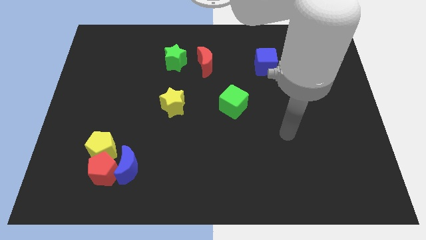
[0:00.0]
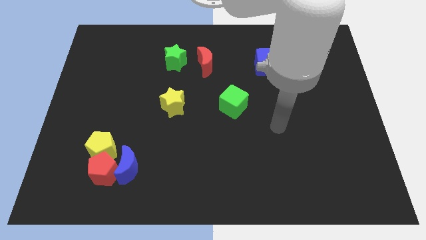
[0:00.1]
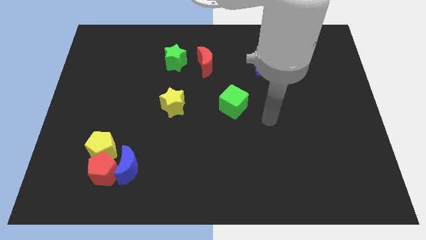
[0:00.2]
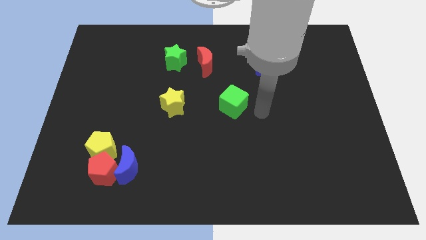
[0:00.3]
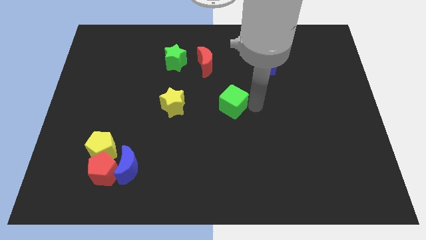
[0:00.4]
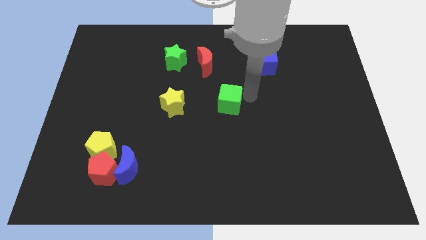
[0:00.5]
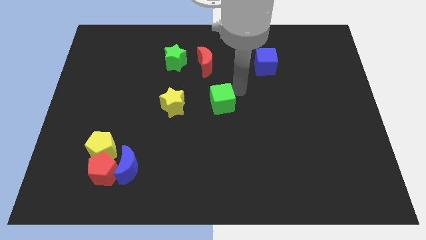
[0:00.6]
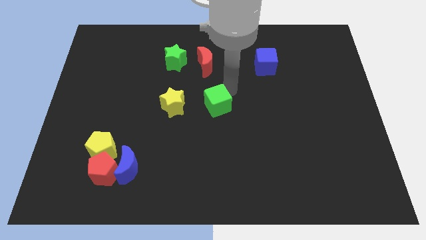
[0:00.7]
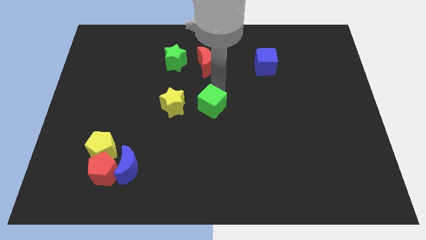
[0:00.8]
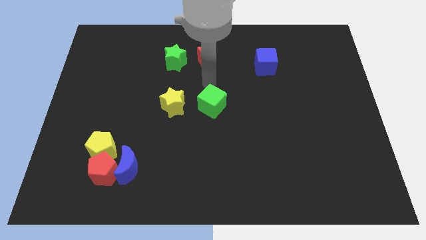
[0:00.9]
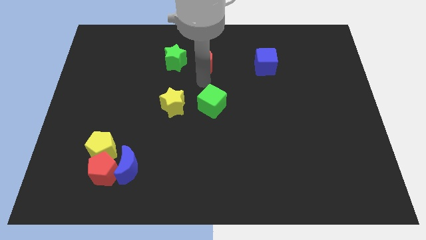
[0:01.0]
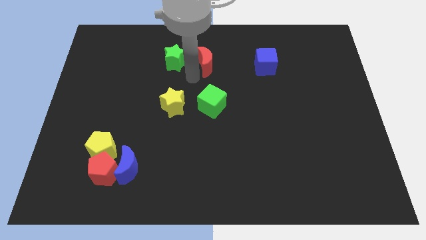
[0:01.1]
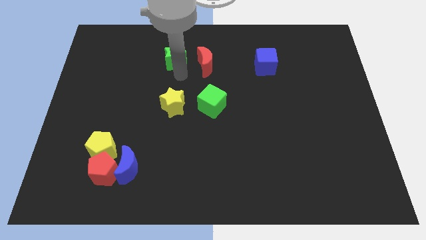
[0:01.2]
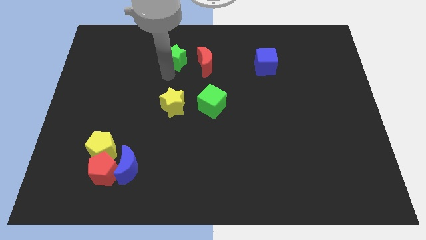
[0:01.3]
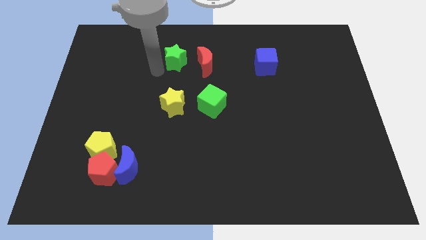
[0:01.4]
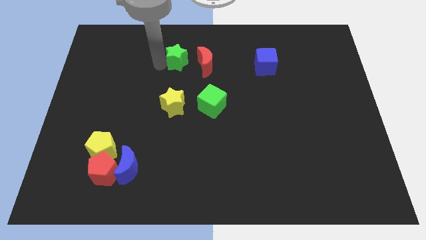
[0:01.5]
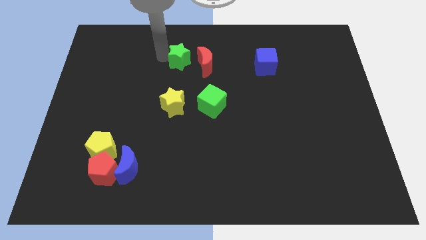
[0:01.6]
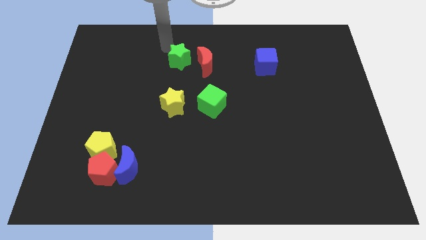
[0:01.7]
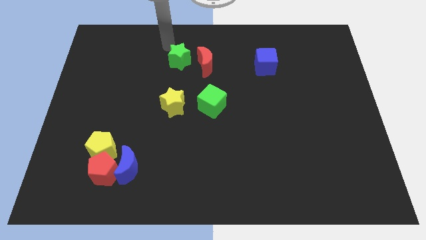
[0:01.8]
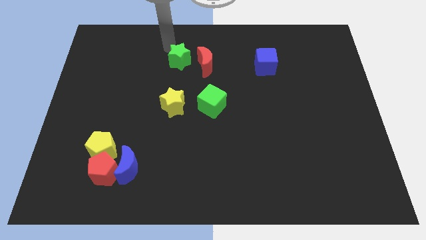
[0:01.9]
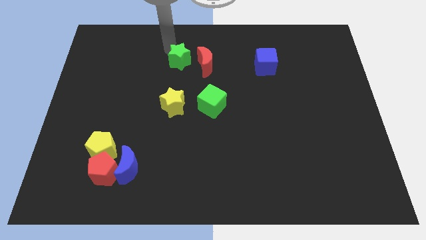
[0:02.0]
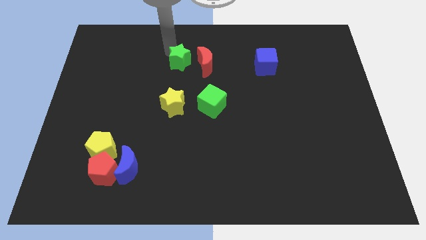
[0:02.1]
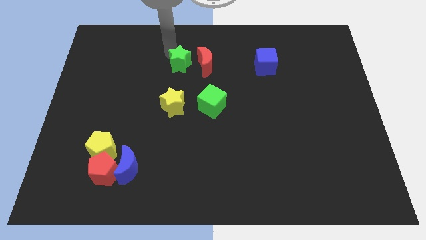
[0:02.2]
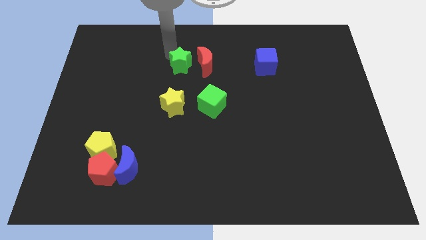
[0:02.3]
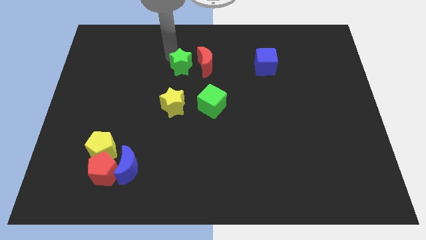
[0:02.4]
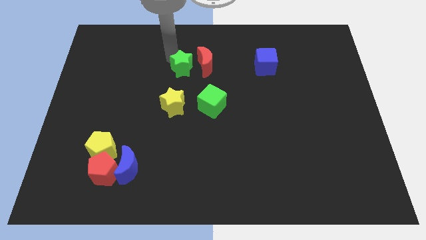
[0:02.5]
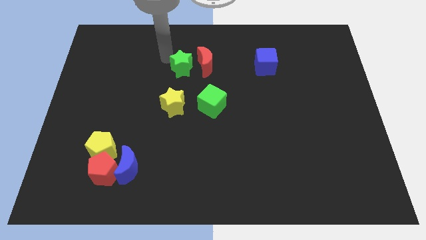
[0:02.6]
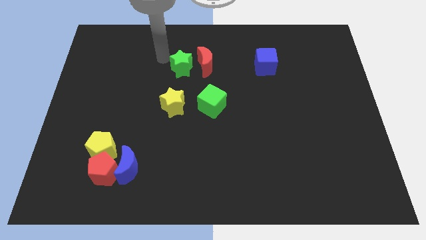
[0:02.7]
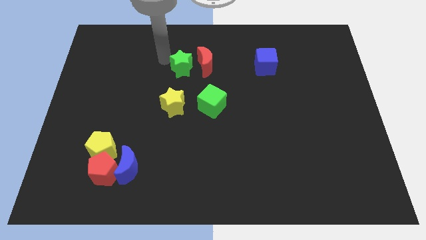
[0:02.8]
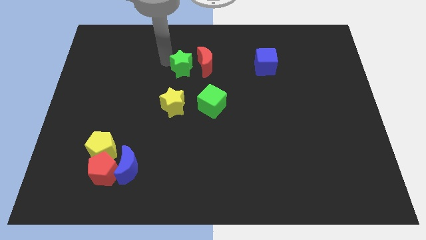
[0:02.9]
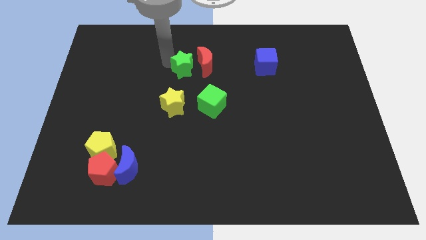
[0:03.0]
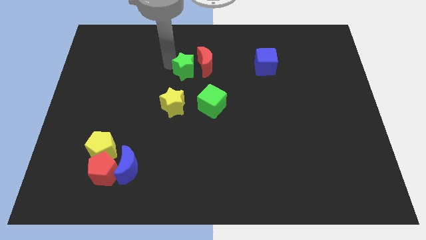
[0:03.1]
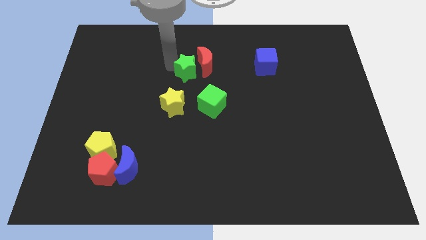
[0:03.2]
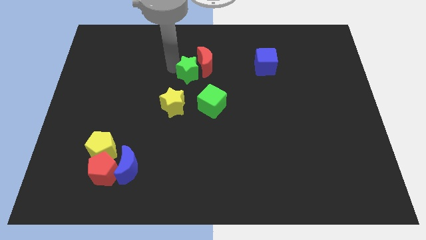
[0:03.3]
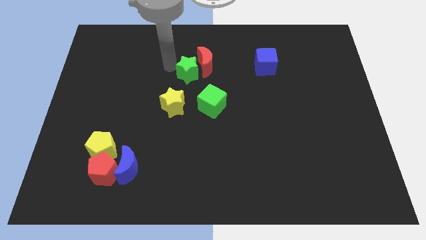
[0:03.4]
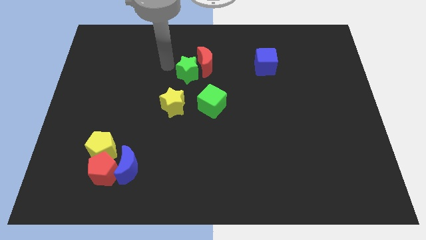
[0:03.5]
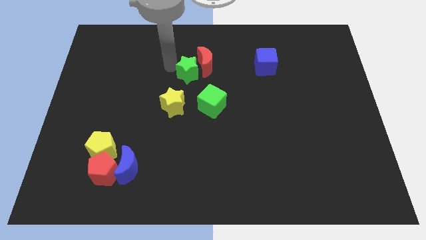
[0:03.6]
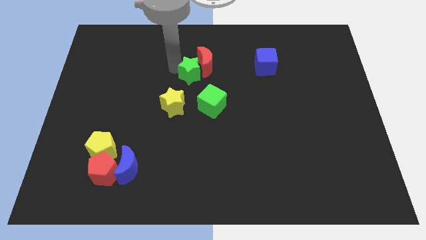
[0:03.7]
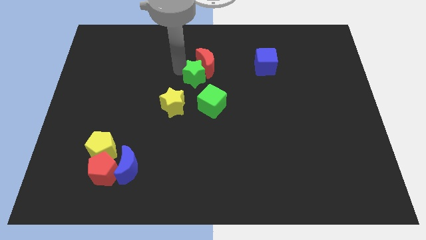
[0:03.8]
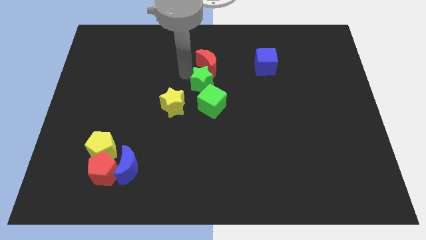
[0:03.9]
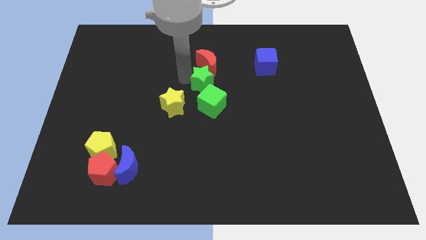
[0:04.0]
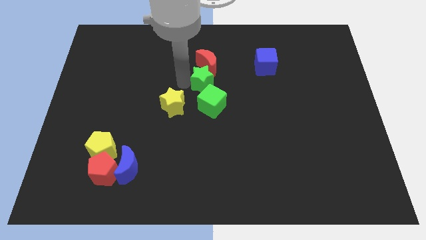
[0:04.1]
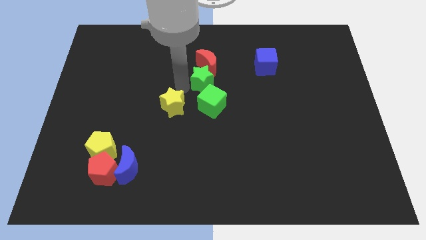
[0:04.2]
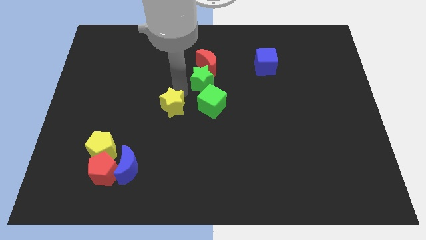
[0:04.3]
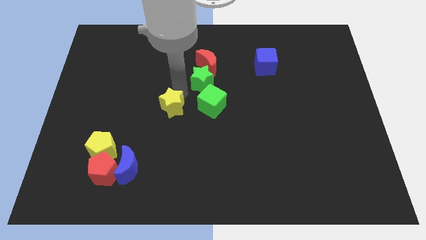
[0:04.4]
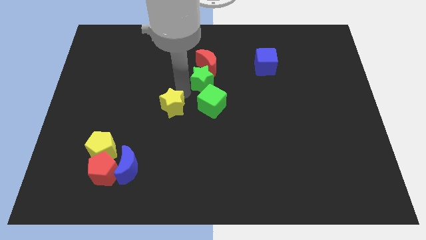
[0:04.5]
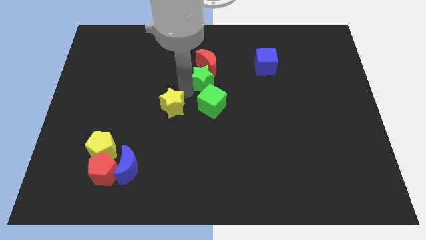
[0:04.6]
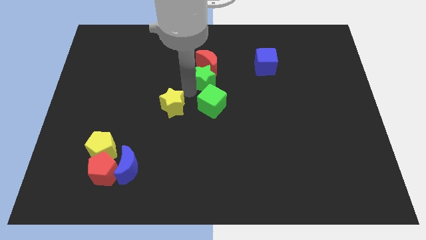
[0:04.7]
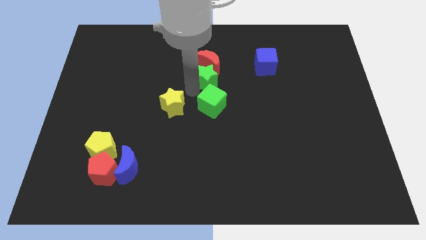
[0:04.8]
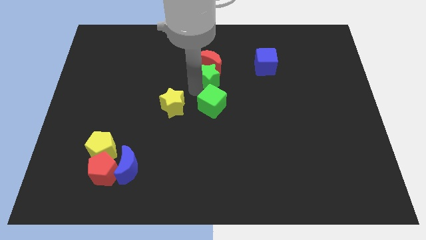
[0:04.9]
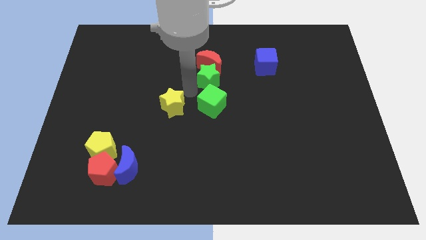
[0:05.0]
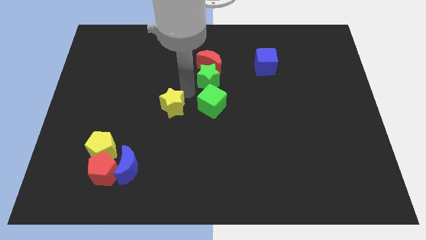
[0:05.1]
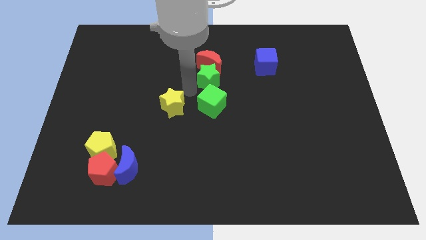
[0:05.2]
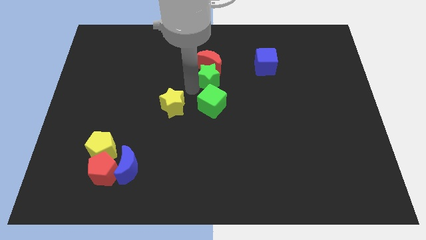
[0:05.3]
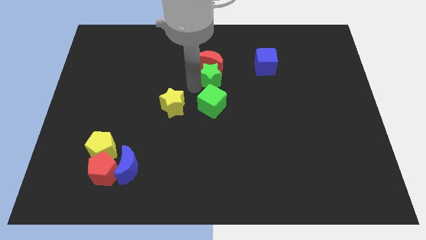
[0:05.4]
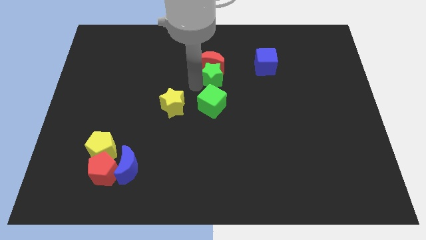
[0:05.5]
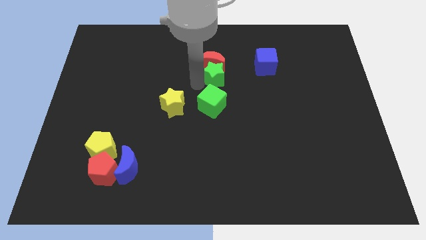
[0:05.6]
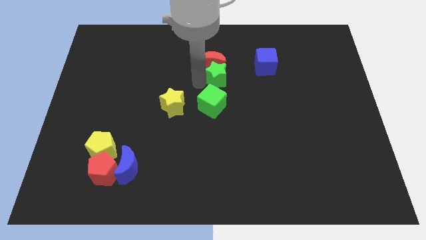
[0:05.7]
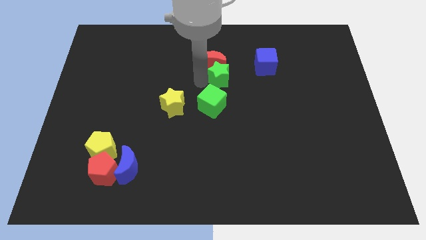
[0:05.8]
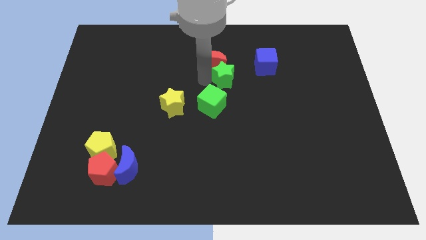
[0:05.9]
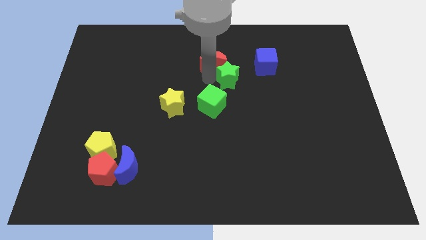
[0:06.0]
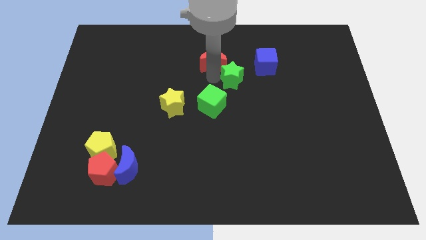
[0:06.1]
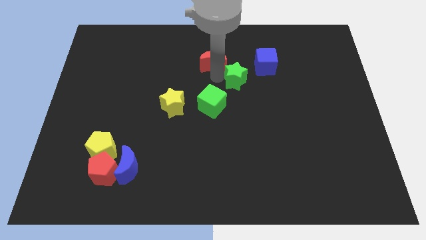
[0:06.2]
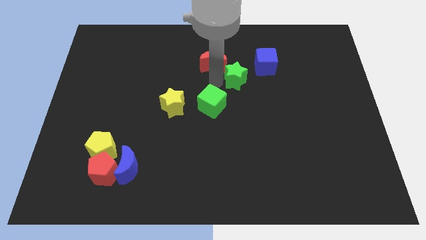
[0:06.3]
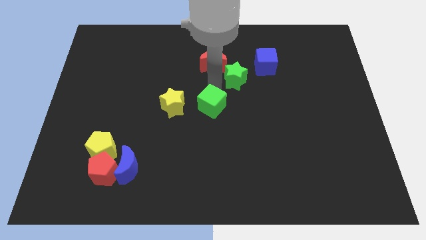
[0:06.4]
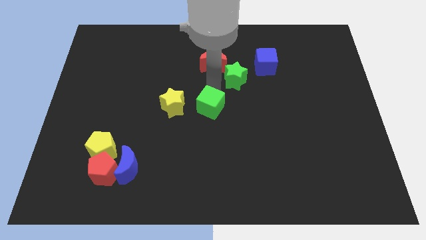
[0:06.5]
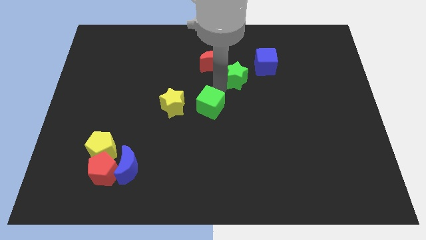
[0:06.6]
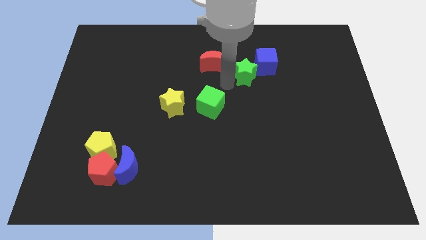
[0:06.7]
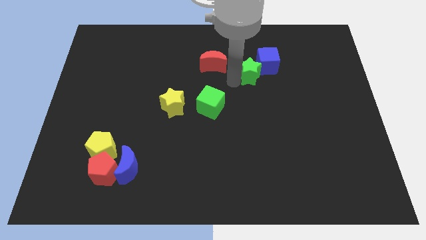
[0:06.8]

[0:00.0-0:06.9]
push the green star next to the blue cube
